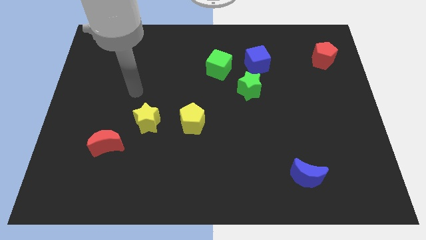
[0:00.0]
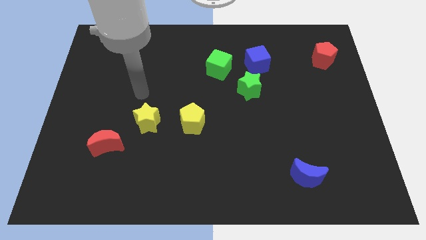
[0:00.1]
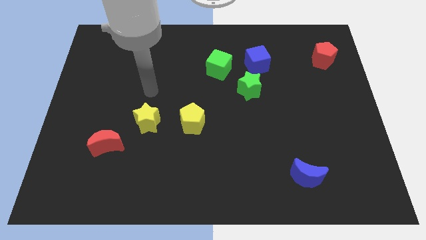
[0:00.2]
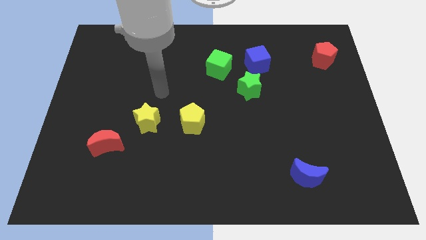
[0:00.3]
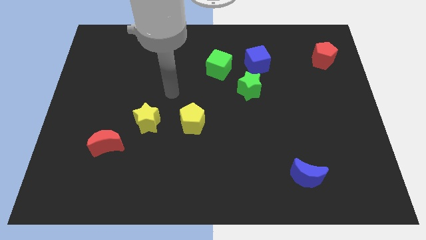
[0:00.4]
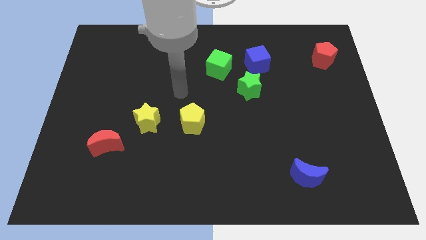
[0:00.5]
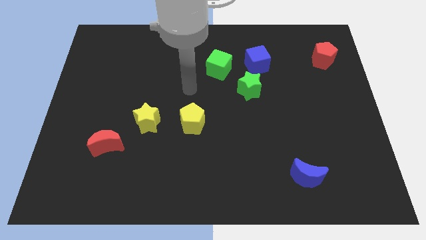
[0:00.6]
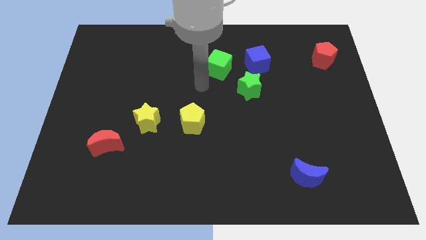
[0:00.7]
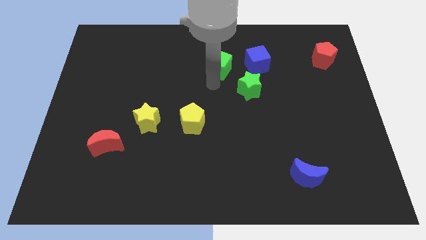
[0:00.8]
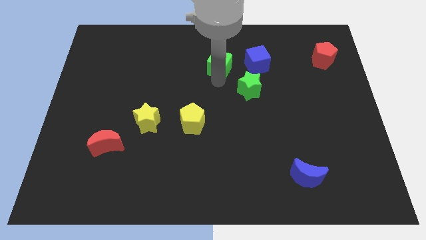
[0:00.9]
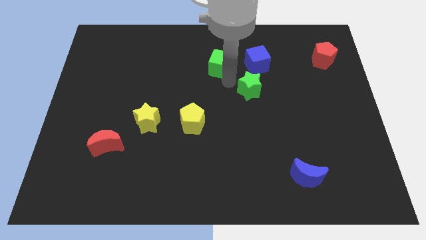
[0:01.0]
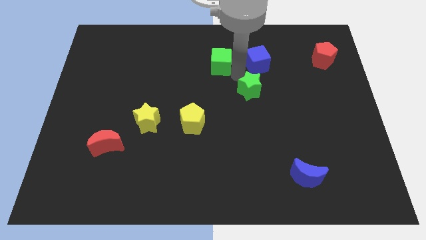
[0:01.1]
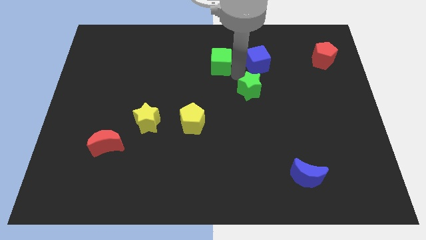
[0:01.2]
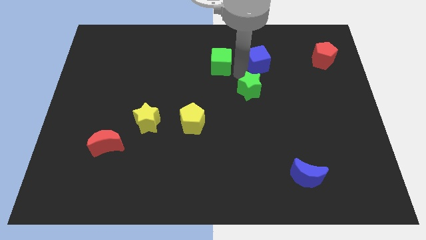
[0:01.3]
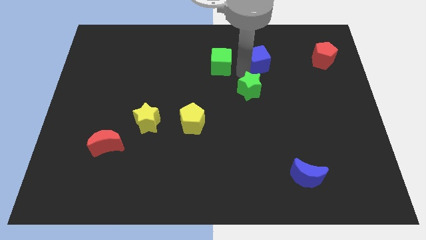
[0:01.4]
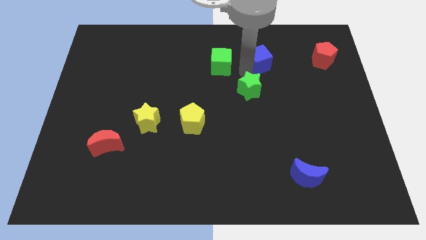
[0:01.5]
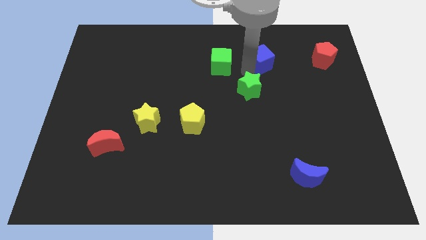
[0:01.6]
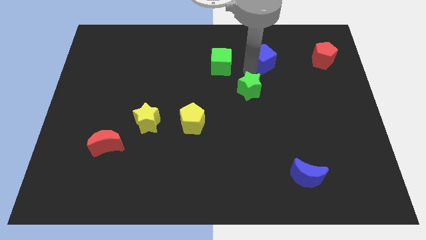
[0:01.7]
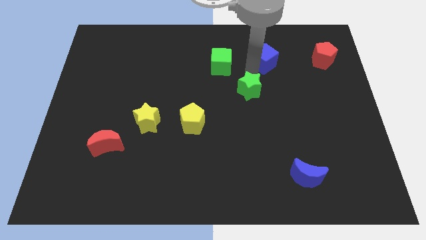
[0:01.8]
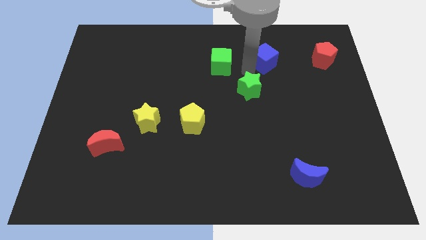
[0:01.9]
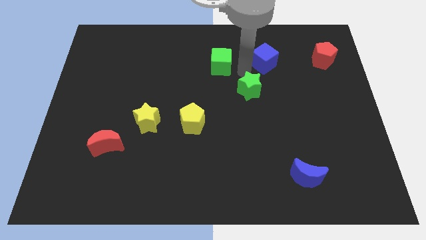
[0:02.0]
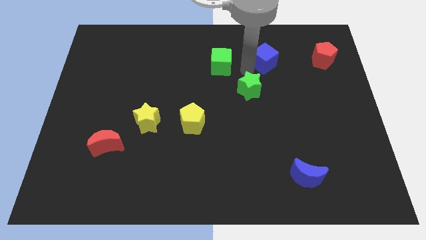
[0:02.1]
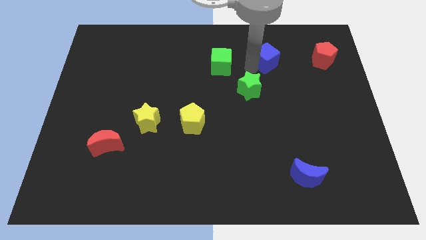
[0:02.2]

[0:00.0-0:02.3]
pull the blue cube apart from the green star and green cube

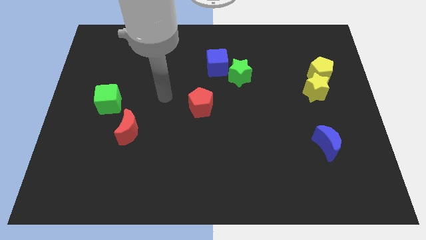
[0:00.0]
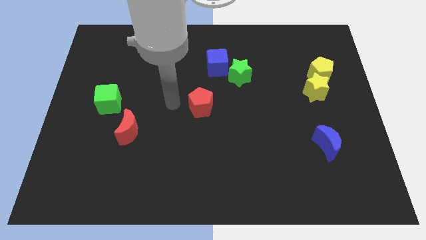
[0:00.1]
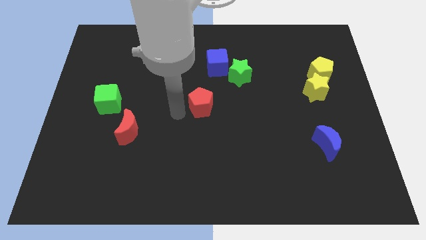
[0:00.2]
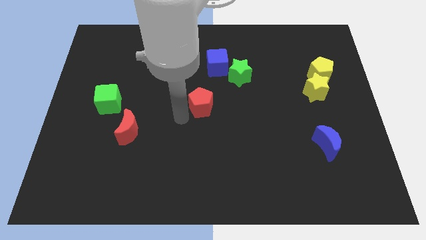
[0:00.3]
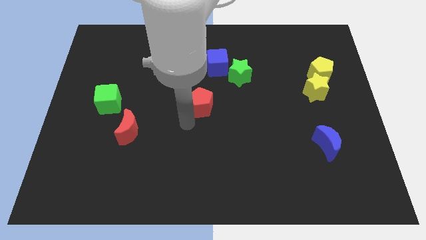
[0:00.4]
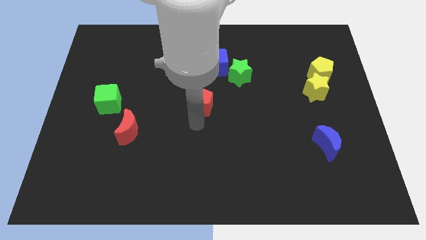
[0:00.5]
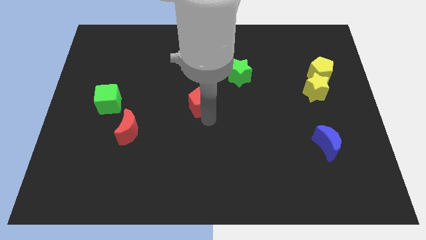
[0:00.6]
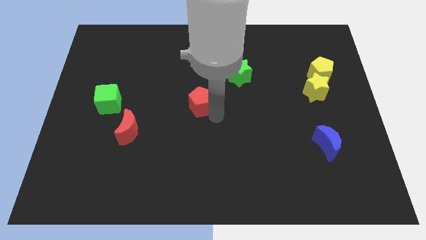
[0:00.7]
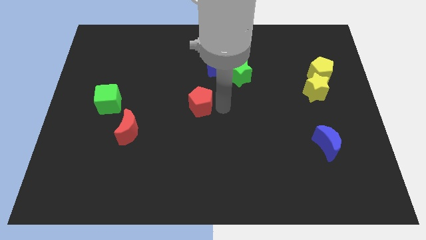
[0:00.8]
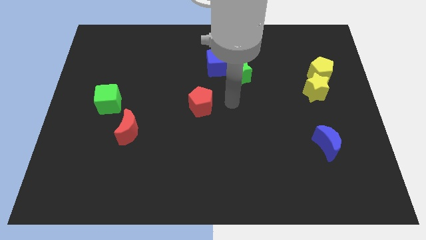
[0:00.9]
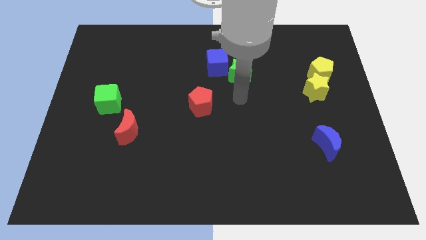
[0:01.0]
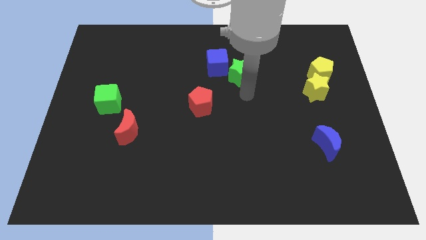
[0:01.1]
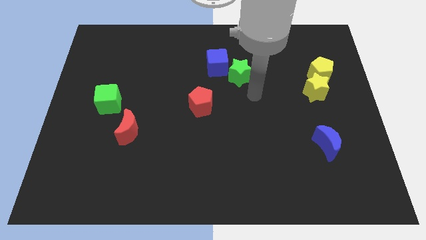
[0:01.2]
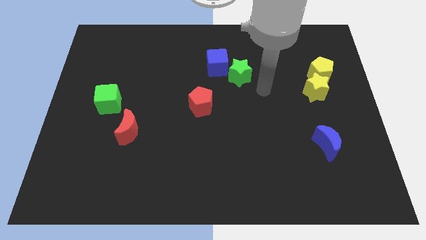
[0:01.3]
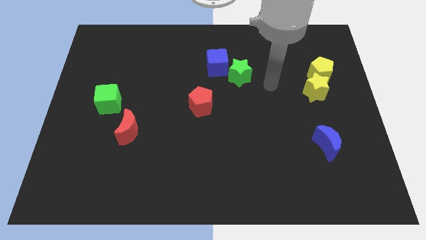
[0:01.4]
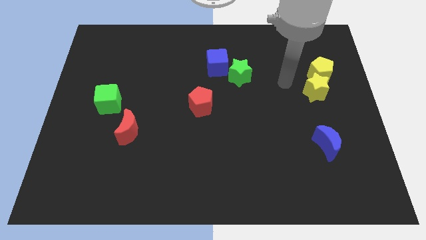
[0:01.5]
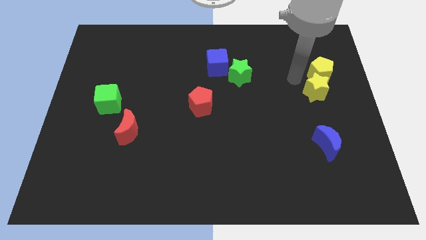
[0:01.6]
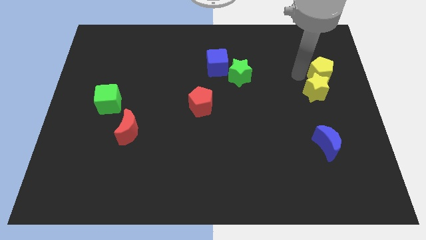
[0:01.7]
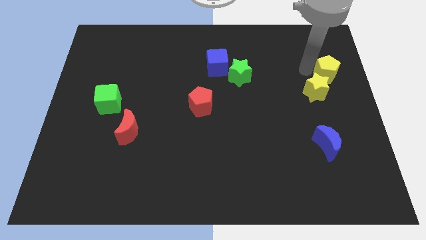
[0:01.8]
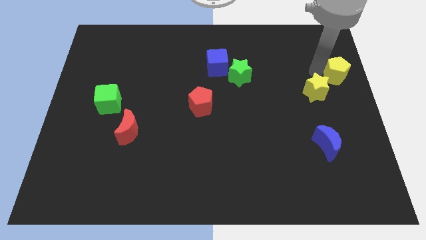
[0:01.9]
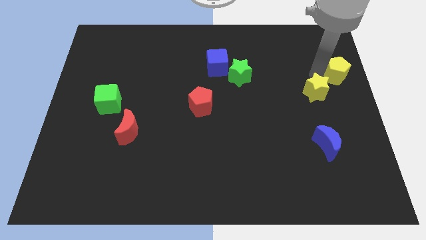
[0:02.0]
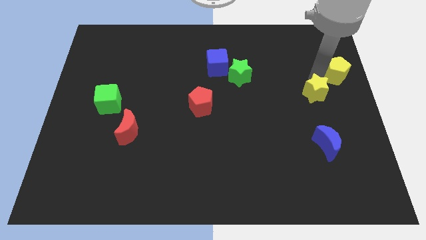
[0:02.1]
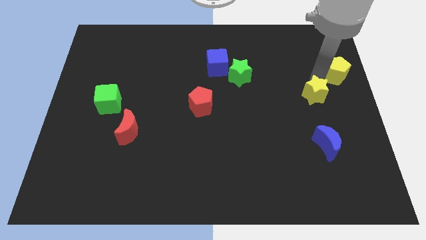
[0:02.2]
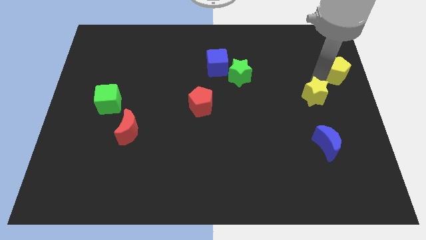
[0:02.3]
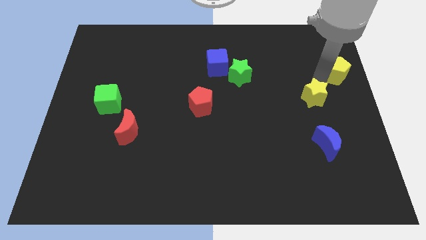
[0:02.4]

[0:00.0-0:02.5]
pull the yellow star apart from the yellow pentagon

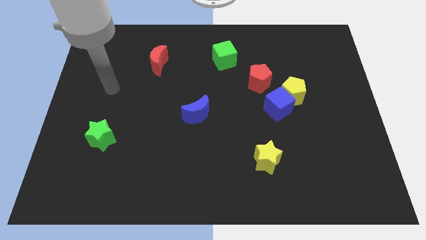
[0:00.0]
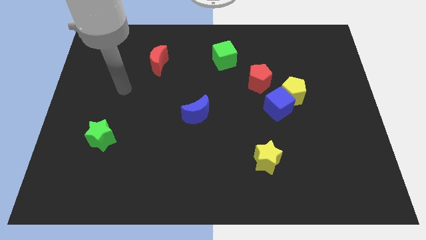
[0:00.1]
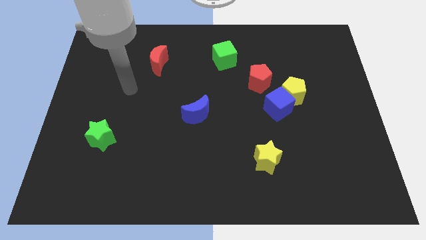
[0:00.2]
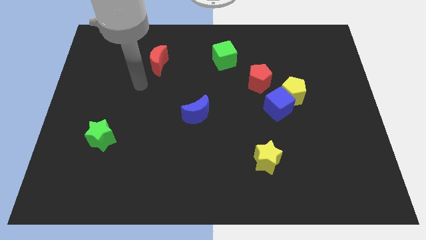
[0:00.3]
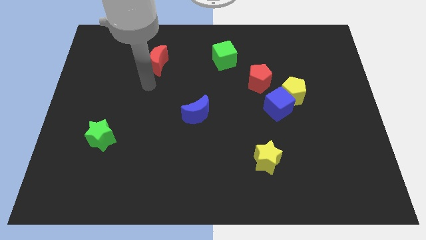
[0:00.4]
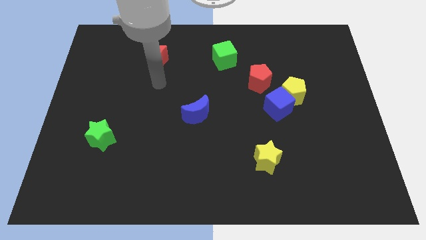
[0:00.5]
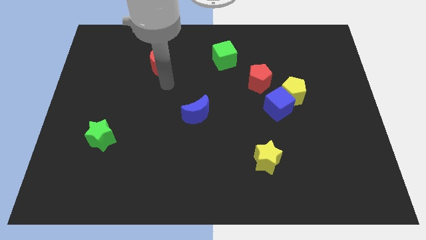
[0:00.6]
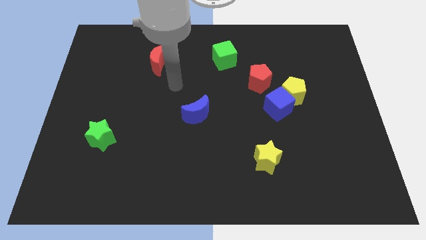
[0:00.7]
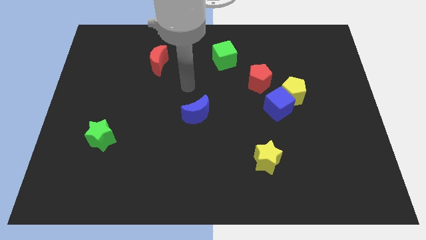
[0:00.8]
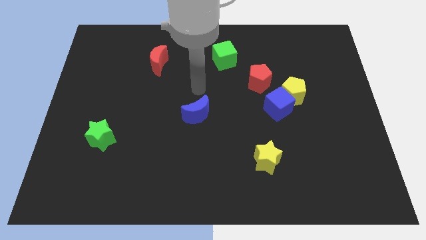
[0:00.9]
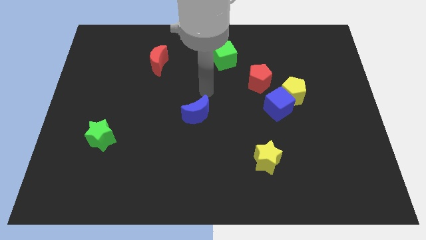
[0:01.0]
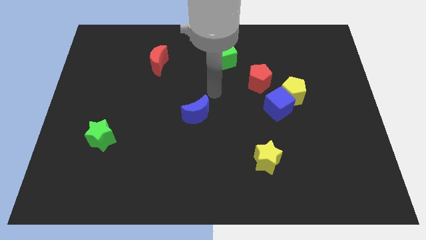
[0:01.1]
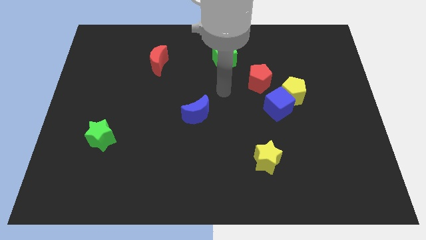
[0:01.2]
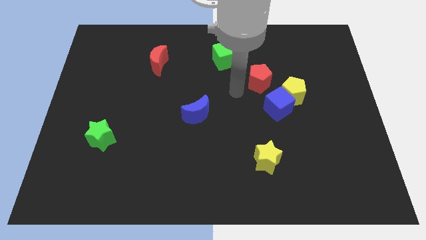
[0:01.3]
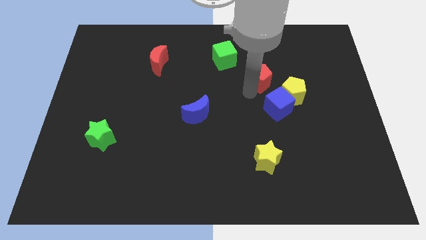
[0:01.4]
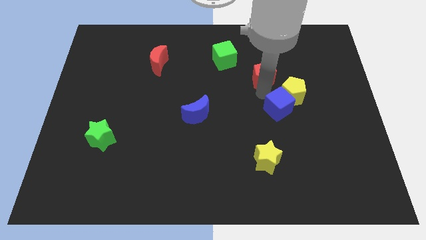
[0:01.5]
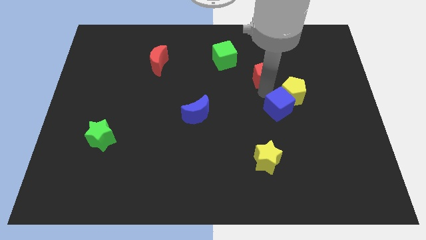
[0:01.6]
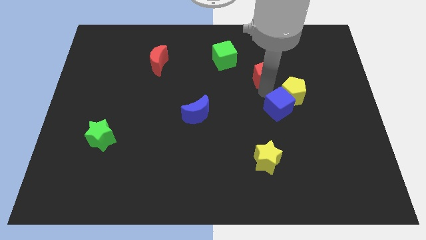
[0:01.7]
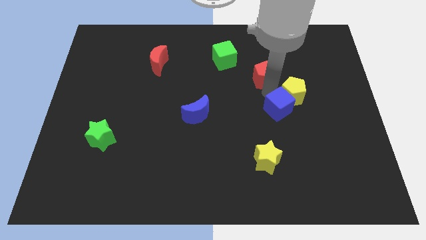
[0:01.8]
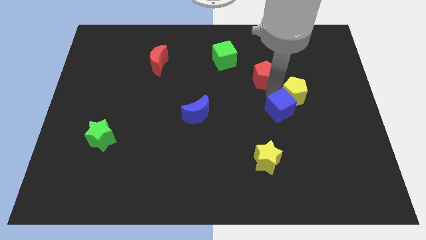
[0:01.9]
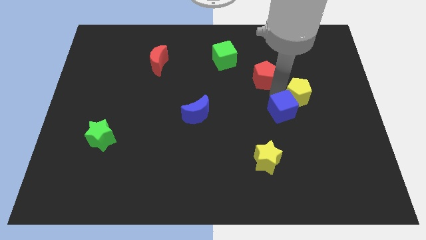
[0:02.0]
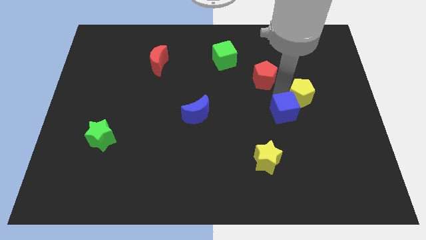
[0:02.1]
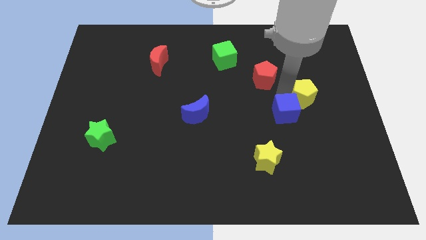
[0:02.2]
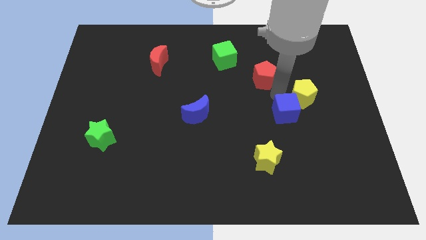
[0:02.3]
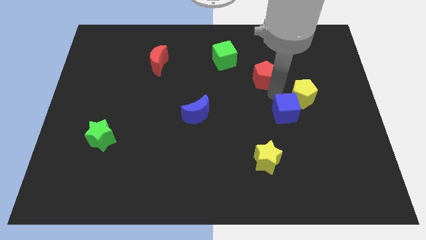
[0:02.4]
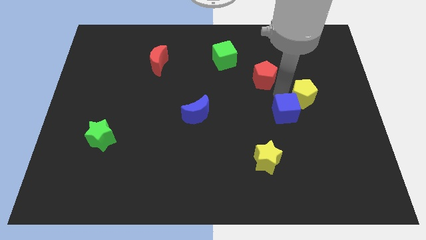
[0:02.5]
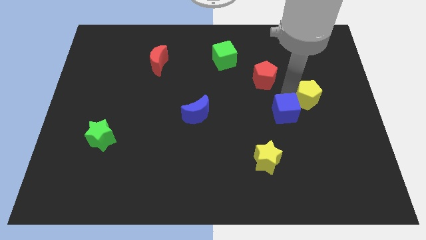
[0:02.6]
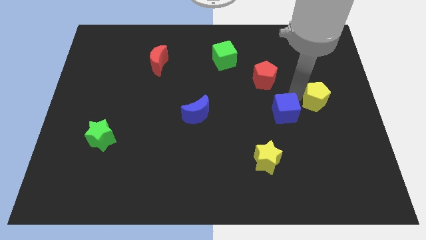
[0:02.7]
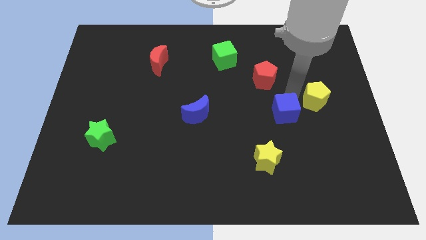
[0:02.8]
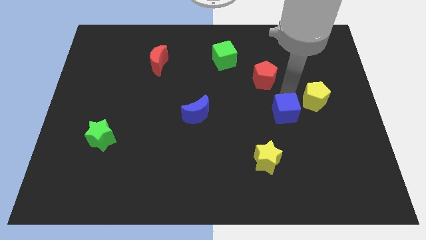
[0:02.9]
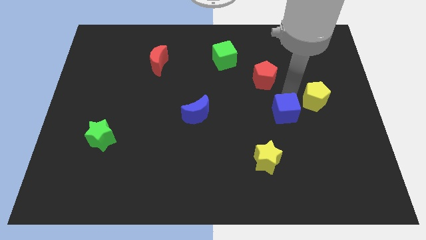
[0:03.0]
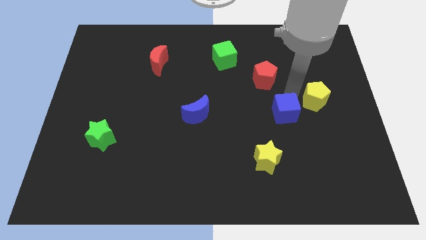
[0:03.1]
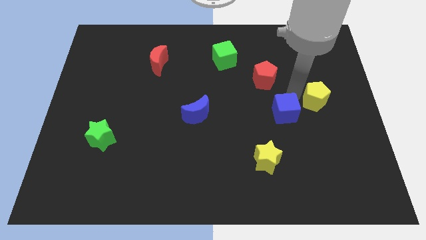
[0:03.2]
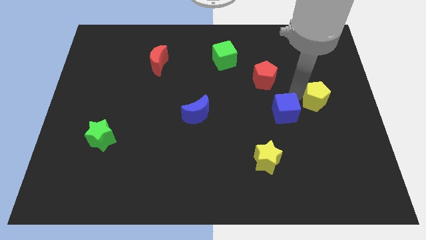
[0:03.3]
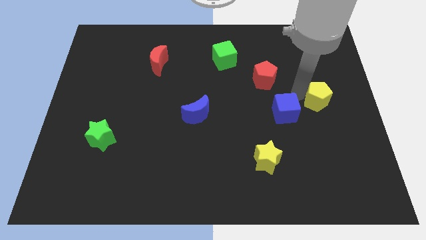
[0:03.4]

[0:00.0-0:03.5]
separate the yellow pentagon from the blue cube and red pentagon

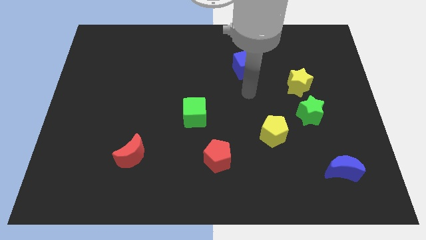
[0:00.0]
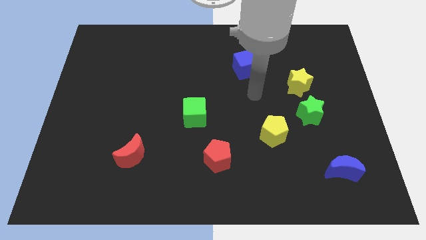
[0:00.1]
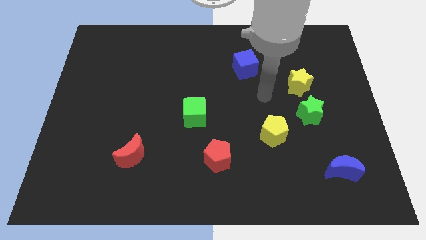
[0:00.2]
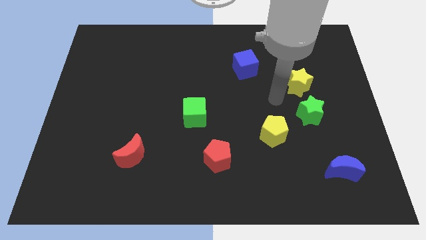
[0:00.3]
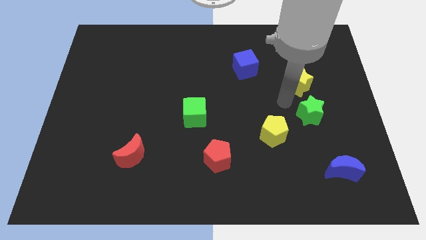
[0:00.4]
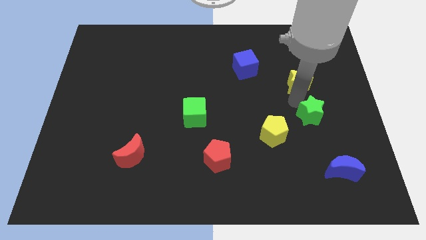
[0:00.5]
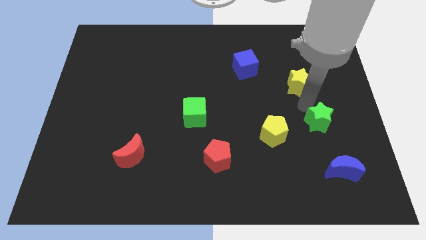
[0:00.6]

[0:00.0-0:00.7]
pull the yellow star apart from the green star

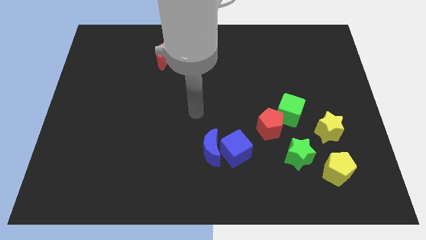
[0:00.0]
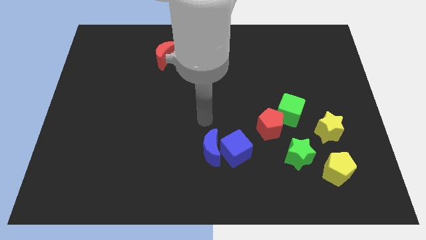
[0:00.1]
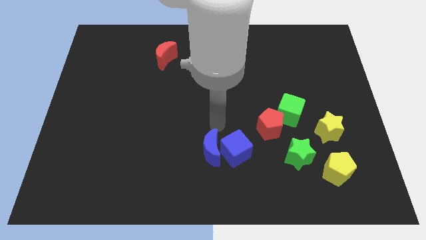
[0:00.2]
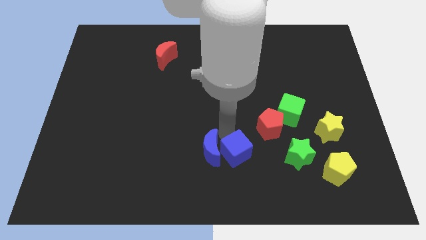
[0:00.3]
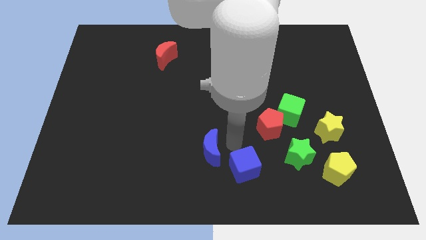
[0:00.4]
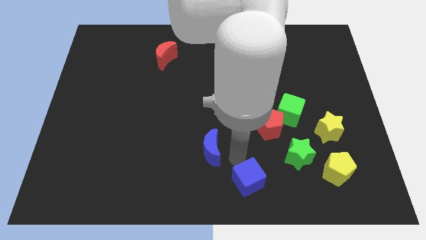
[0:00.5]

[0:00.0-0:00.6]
separate the blue moon from the blue cube
